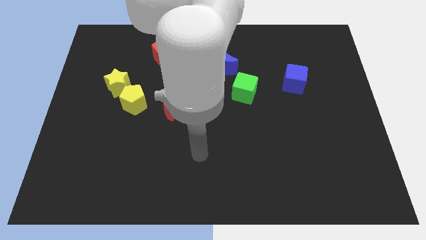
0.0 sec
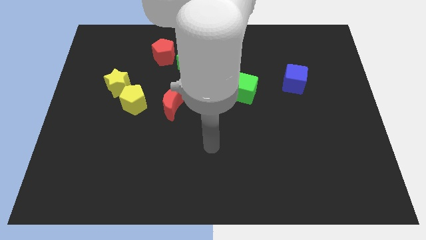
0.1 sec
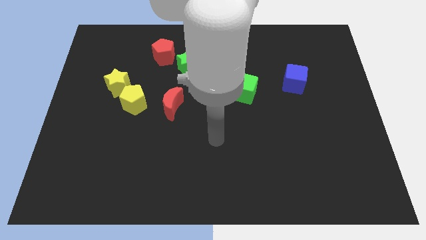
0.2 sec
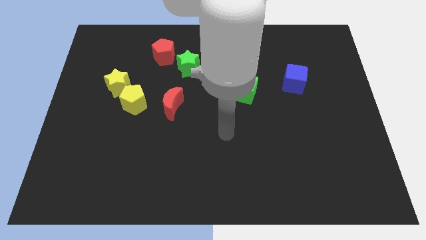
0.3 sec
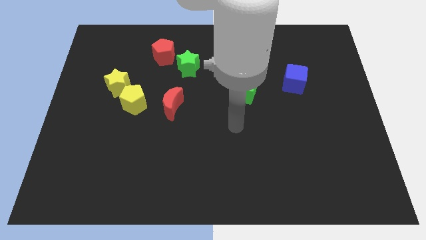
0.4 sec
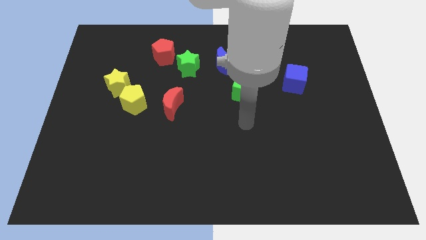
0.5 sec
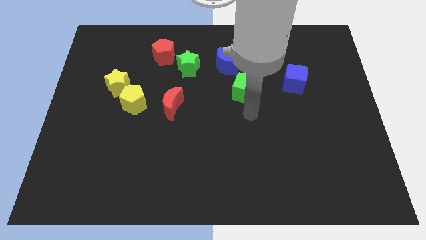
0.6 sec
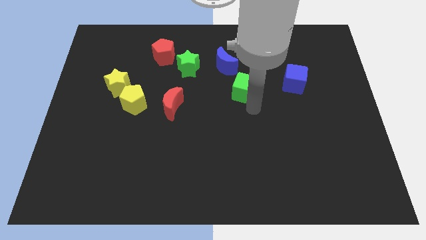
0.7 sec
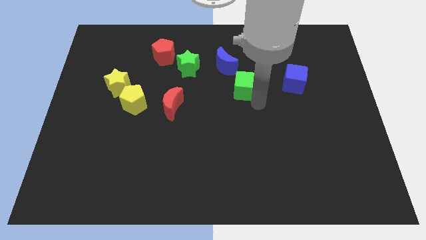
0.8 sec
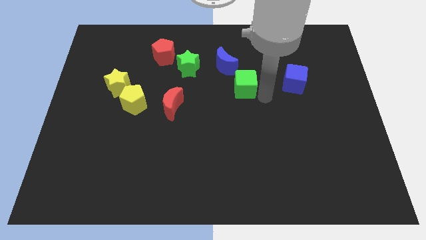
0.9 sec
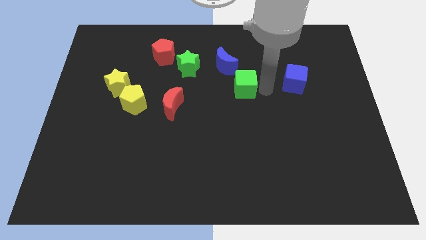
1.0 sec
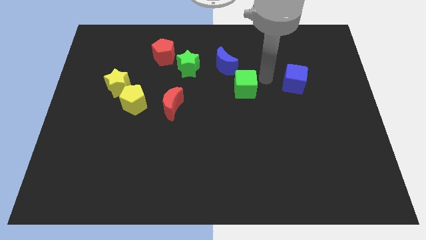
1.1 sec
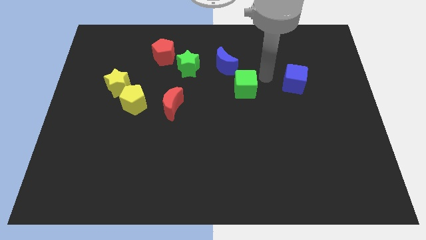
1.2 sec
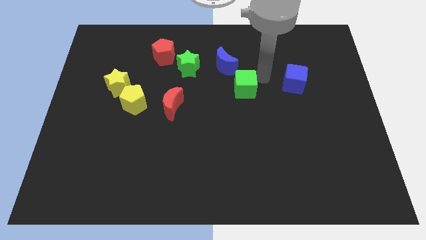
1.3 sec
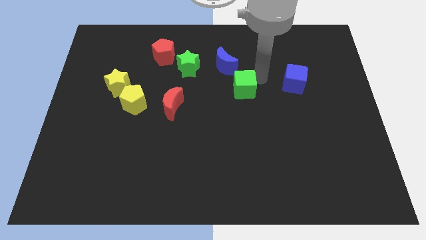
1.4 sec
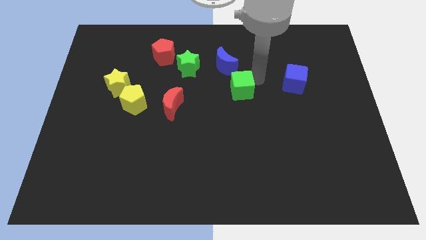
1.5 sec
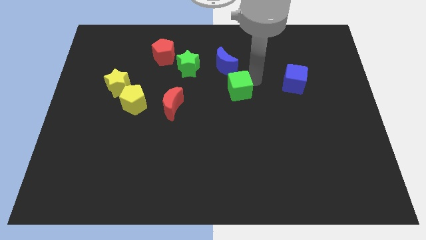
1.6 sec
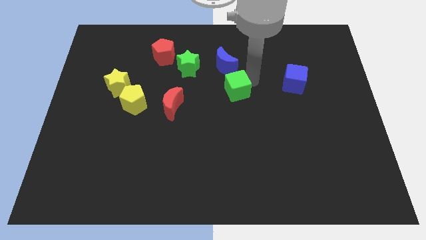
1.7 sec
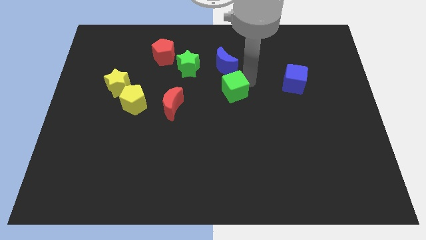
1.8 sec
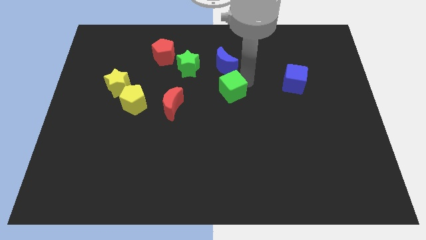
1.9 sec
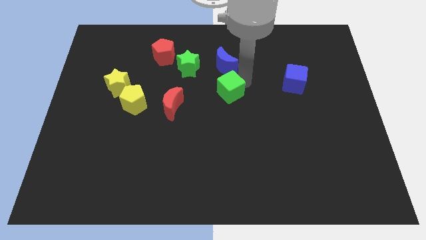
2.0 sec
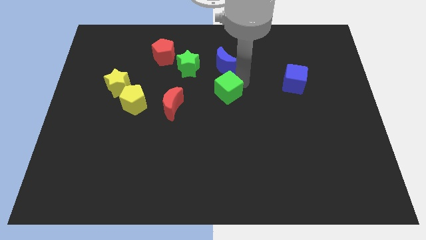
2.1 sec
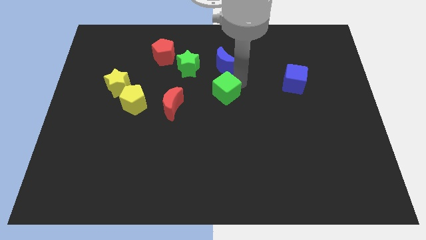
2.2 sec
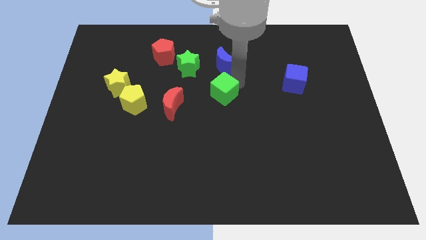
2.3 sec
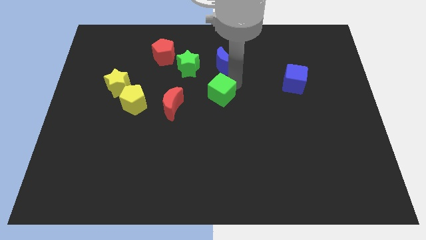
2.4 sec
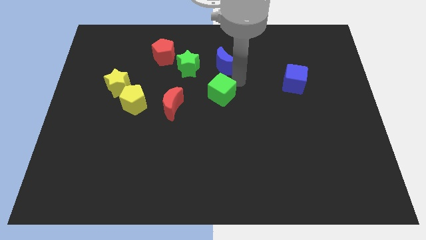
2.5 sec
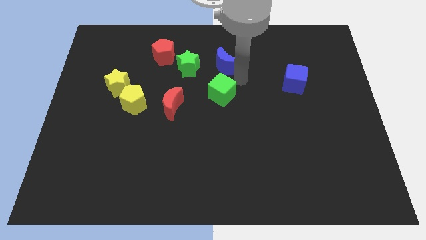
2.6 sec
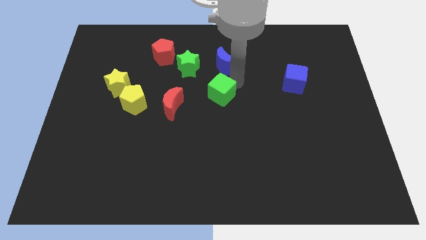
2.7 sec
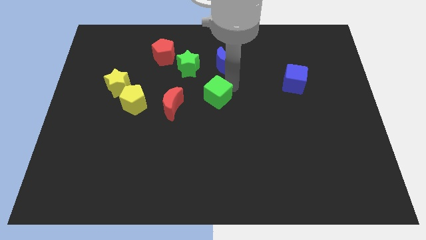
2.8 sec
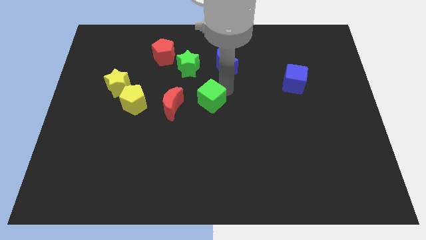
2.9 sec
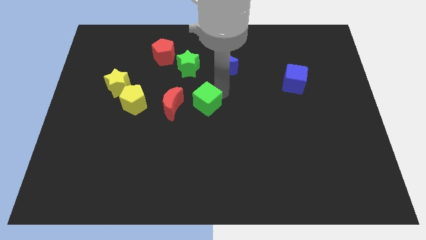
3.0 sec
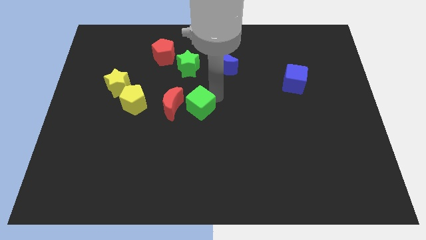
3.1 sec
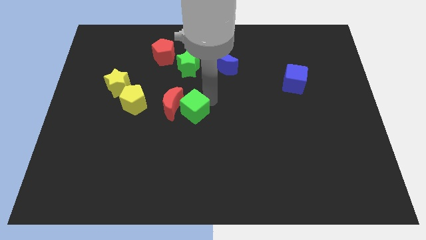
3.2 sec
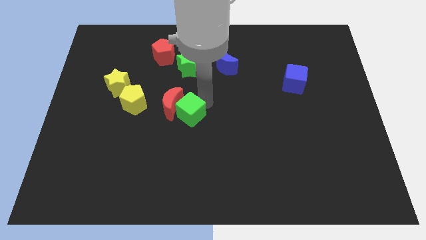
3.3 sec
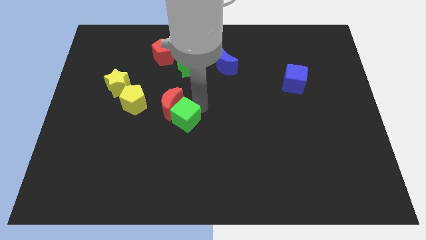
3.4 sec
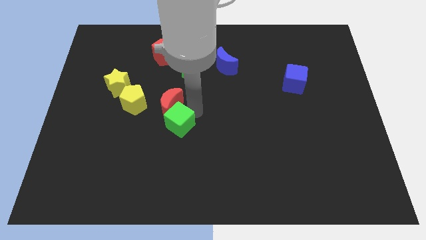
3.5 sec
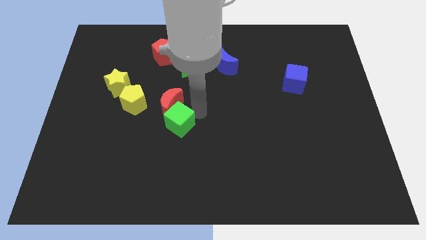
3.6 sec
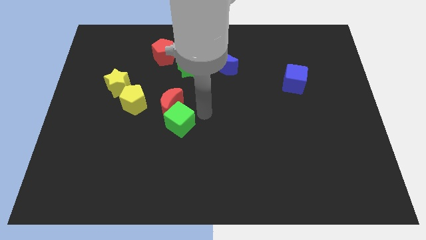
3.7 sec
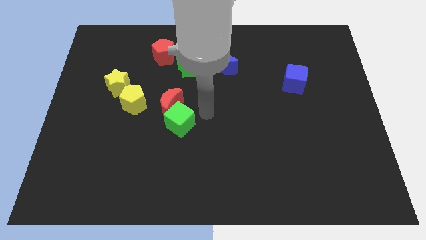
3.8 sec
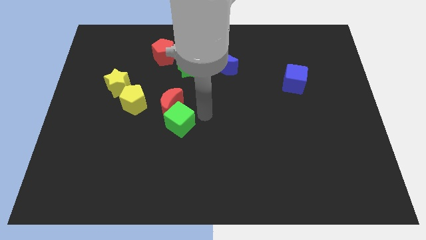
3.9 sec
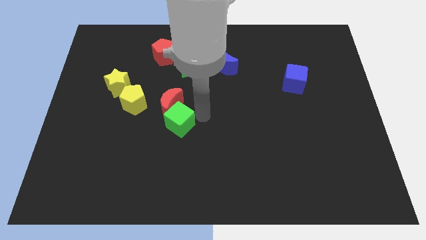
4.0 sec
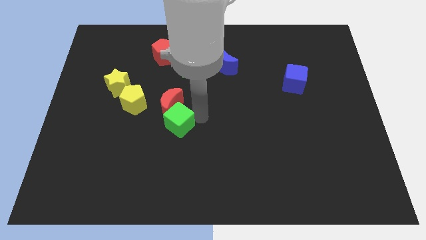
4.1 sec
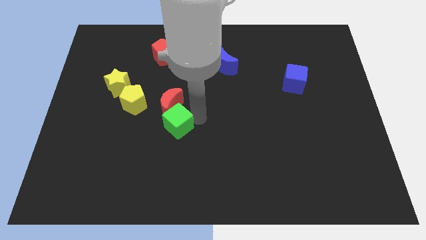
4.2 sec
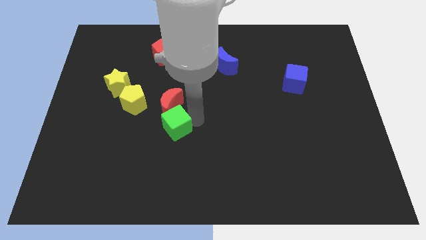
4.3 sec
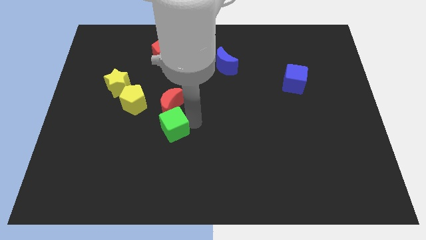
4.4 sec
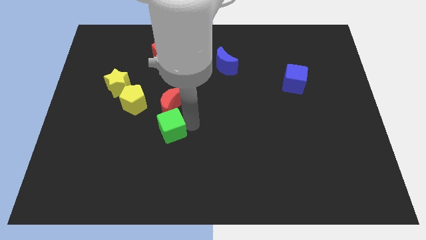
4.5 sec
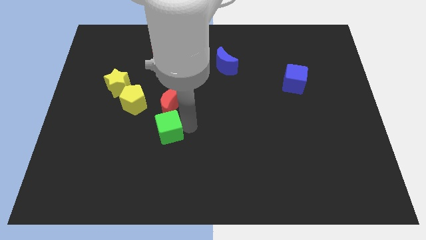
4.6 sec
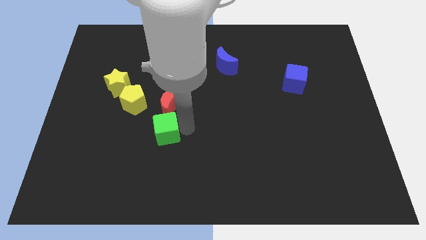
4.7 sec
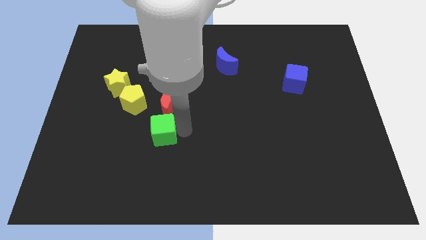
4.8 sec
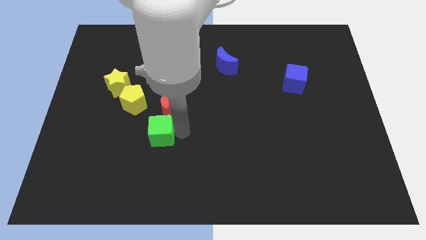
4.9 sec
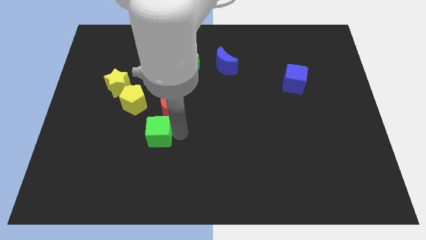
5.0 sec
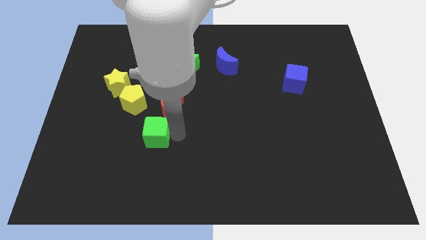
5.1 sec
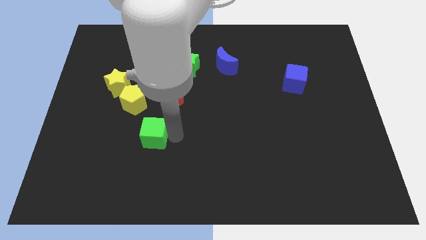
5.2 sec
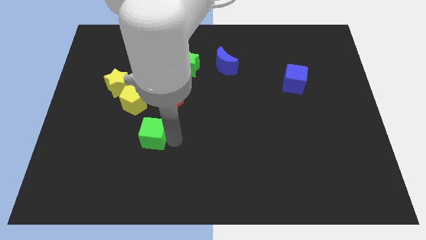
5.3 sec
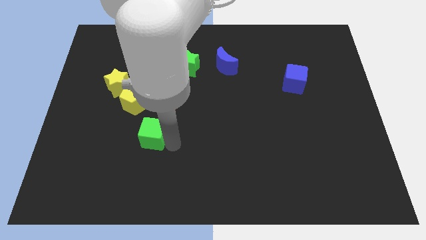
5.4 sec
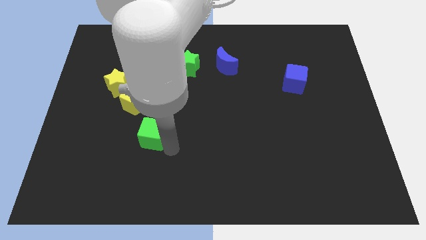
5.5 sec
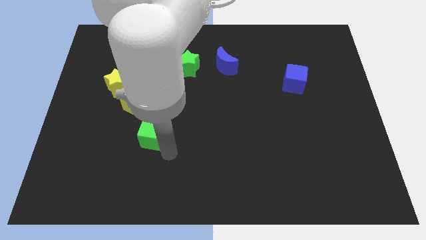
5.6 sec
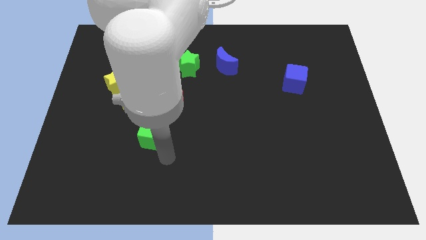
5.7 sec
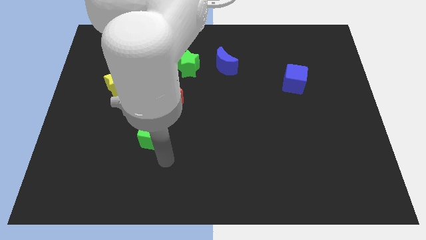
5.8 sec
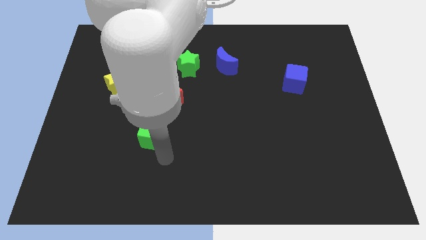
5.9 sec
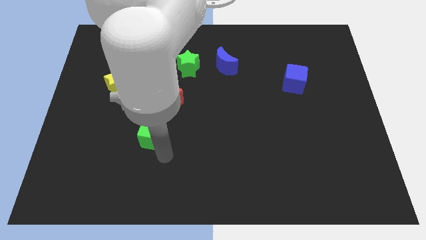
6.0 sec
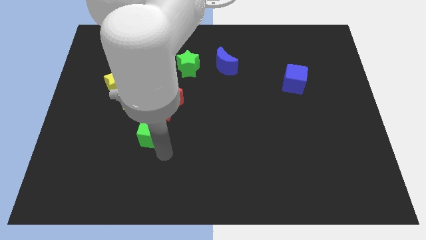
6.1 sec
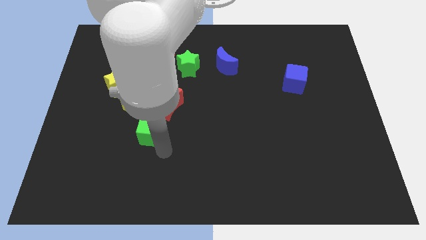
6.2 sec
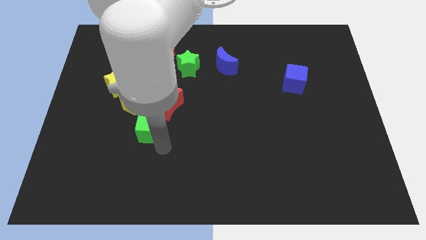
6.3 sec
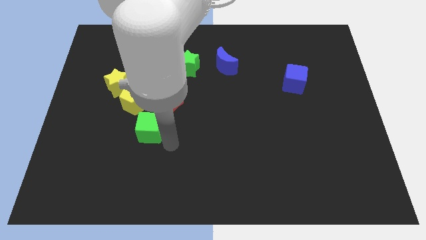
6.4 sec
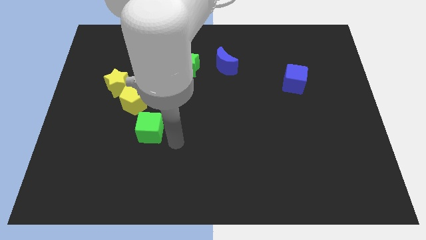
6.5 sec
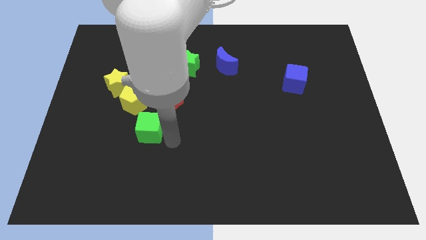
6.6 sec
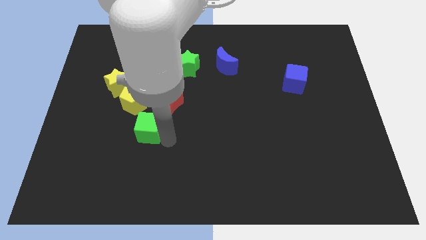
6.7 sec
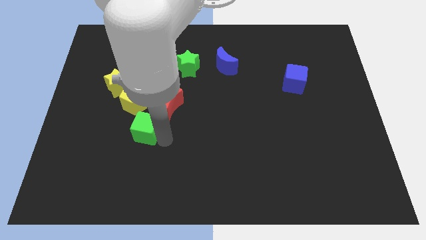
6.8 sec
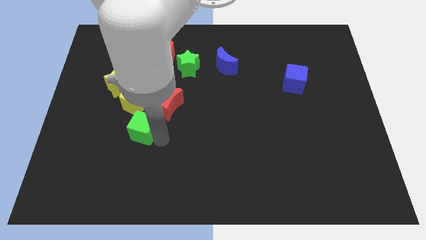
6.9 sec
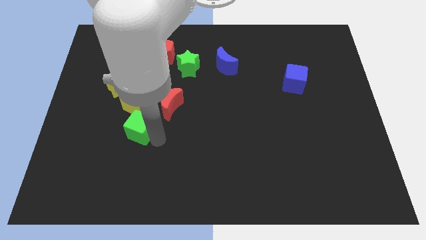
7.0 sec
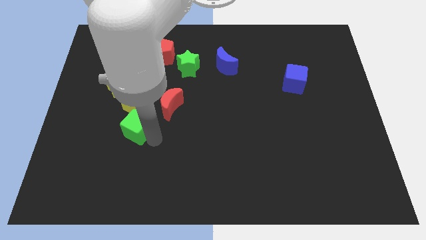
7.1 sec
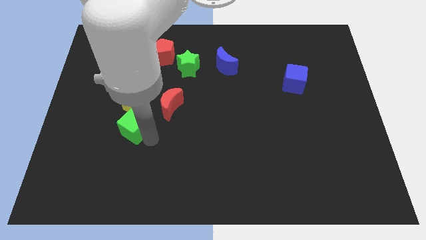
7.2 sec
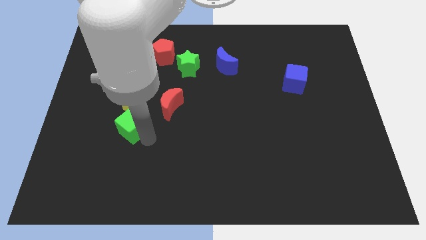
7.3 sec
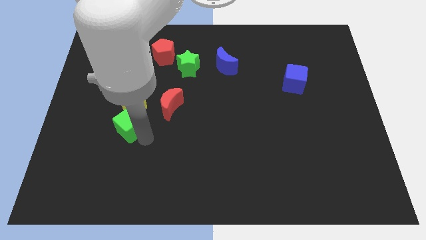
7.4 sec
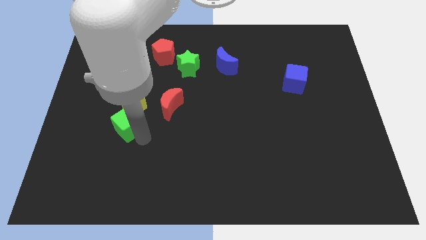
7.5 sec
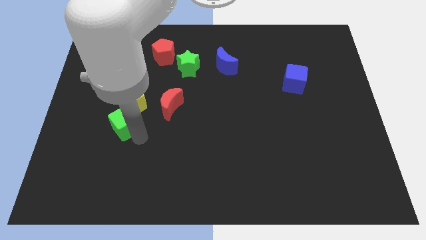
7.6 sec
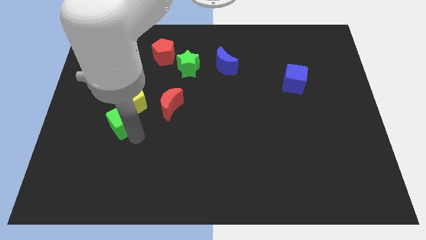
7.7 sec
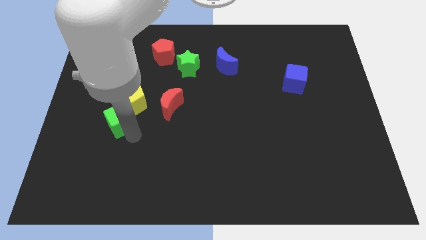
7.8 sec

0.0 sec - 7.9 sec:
put the green cube to the left of the red moon
